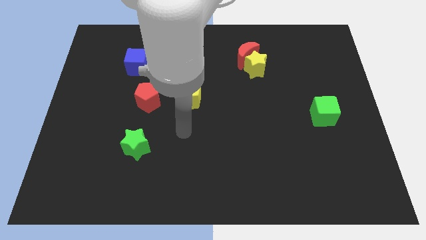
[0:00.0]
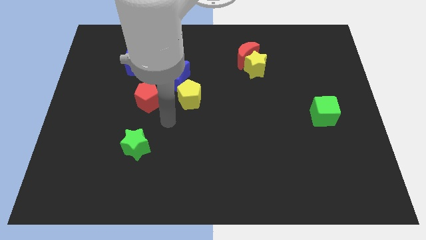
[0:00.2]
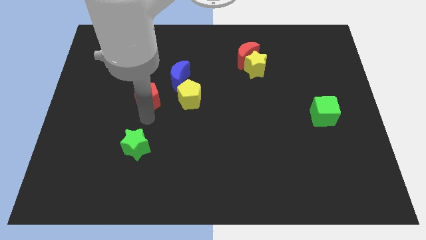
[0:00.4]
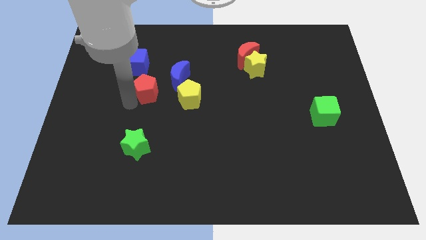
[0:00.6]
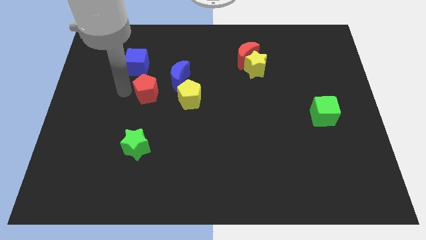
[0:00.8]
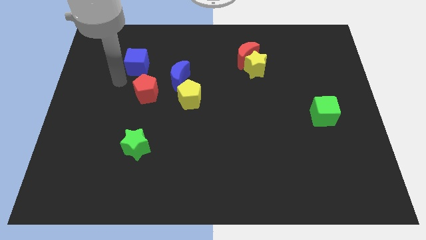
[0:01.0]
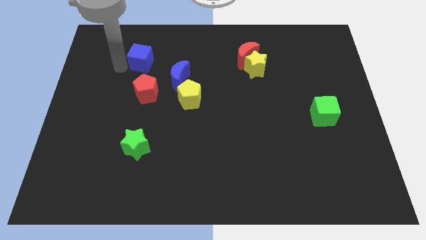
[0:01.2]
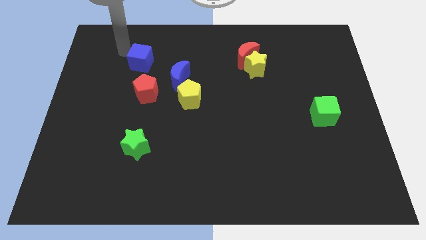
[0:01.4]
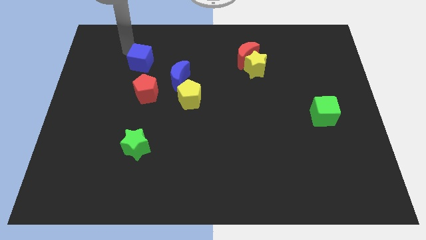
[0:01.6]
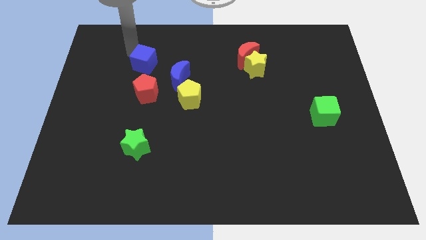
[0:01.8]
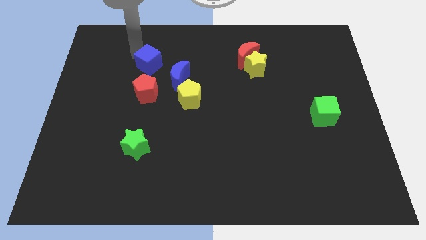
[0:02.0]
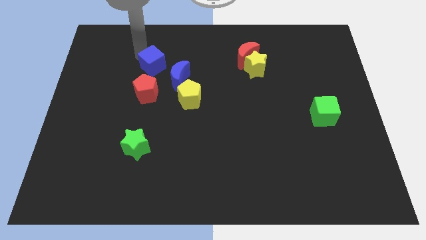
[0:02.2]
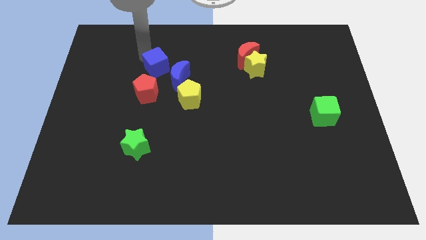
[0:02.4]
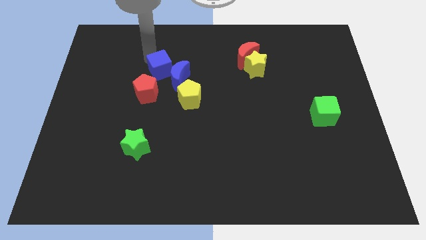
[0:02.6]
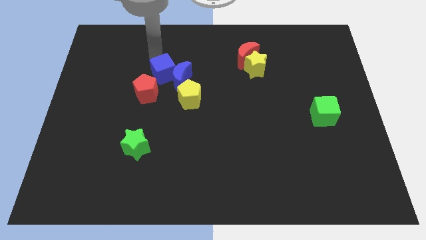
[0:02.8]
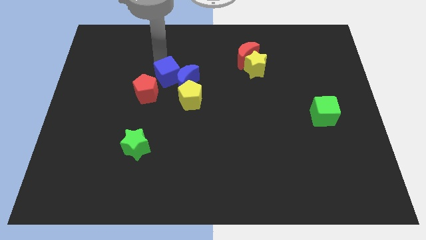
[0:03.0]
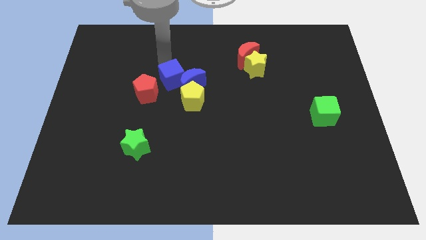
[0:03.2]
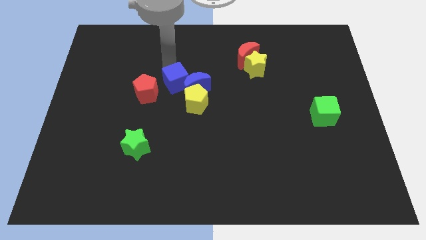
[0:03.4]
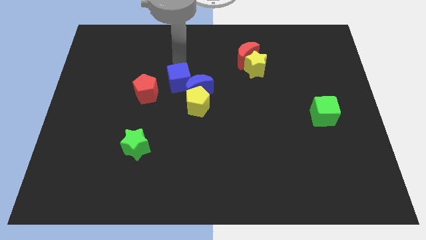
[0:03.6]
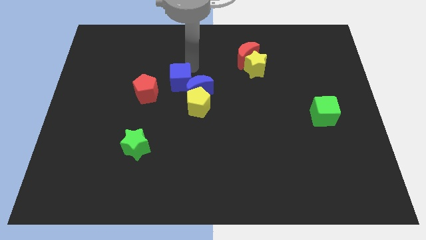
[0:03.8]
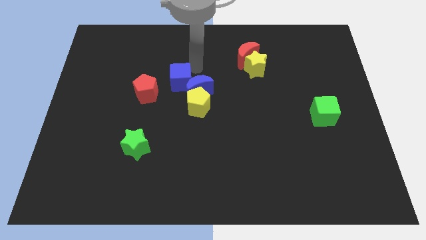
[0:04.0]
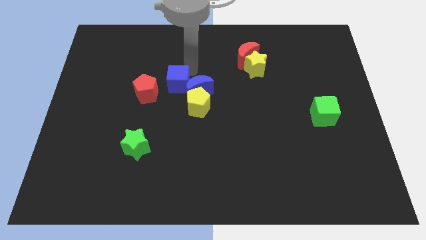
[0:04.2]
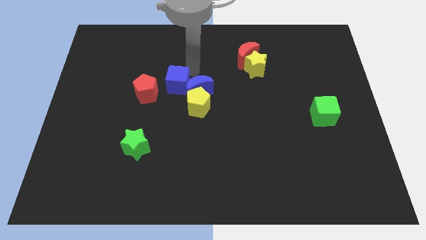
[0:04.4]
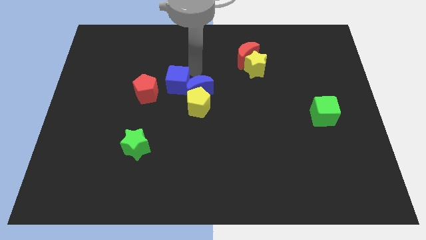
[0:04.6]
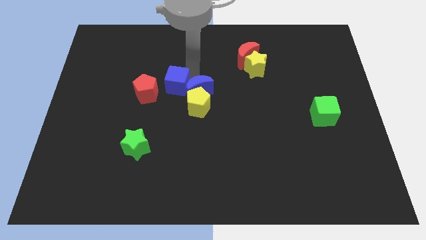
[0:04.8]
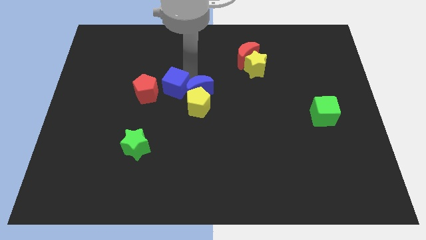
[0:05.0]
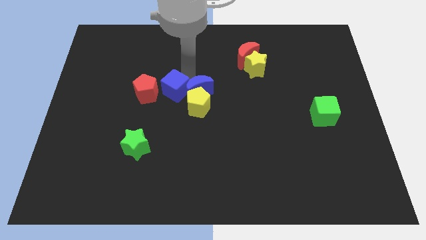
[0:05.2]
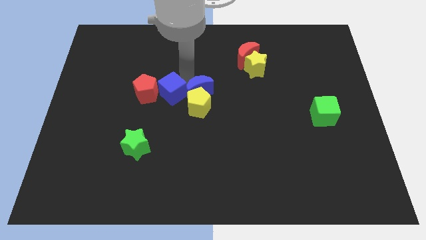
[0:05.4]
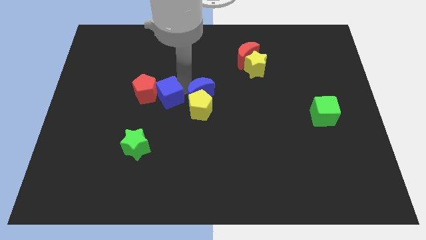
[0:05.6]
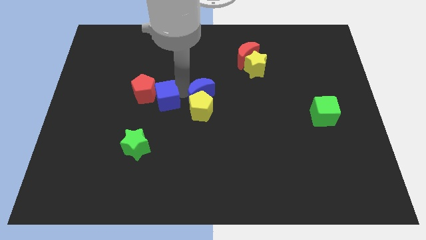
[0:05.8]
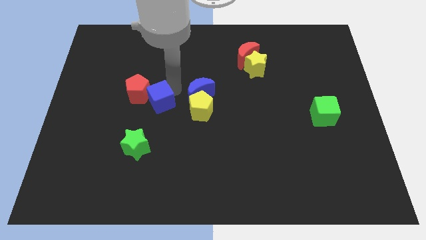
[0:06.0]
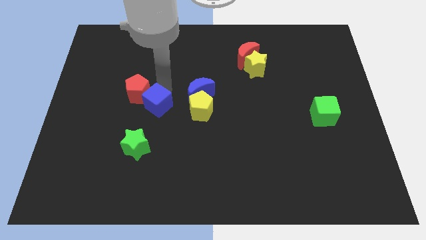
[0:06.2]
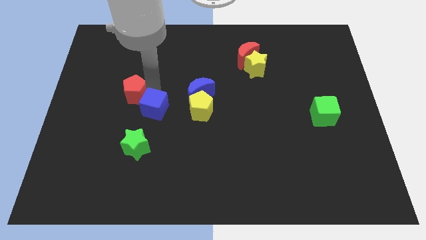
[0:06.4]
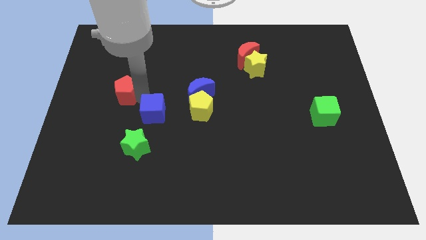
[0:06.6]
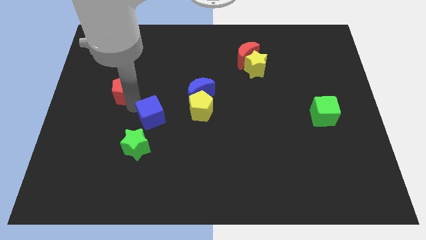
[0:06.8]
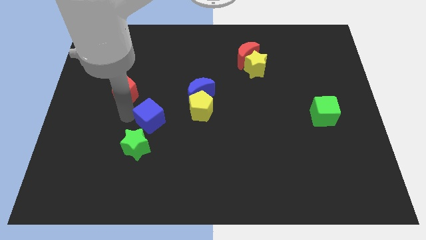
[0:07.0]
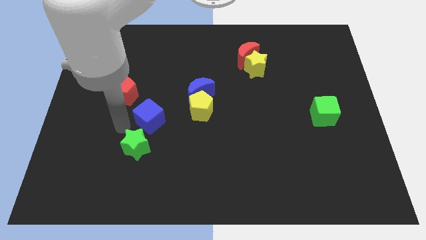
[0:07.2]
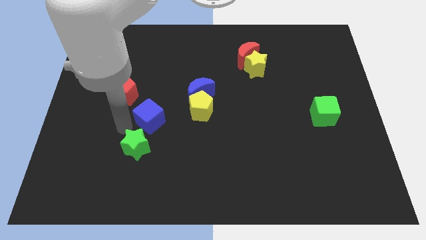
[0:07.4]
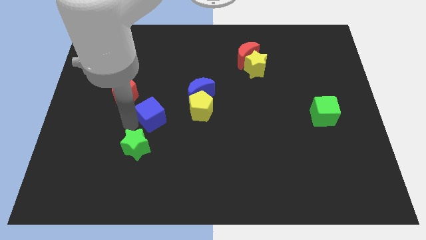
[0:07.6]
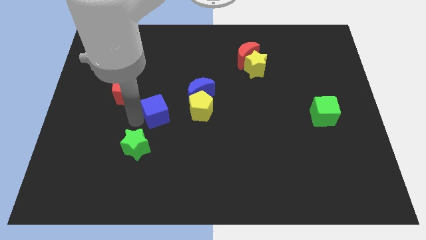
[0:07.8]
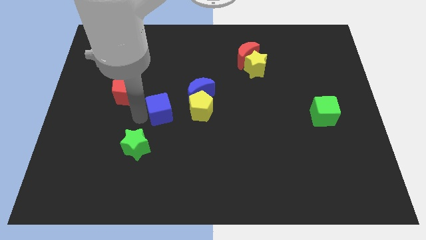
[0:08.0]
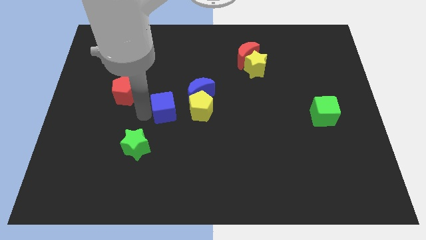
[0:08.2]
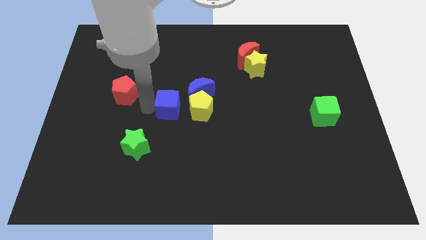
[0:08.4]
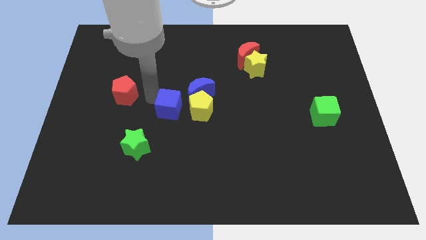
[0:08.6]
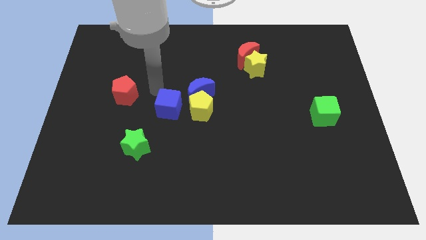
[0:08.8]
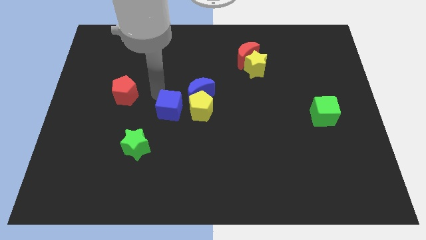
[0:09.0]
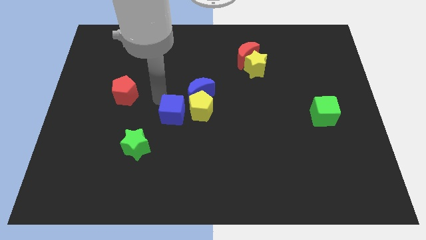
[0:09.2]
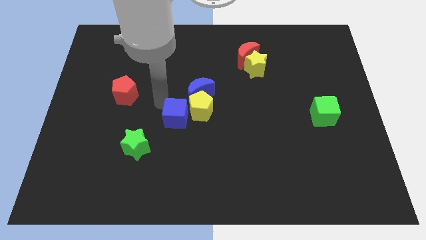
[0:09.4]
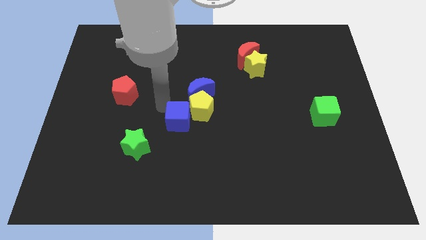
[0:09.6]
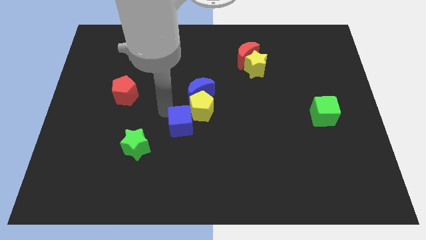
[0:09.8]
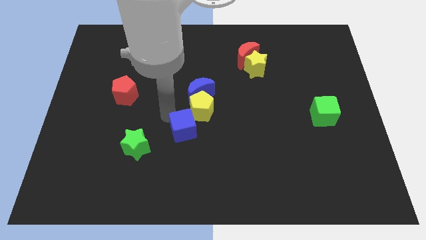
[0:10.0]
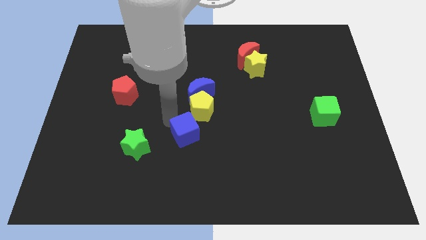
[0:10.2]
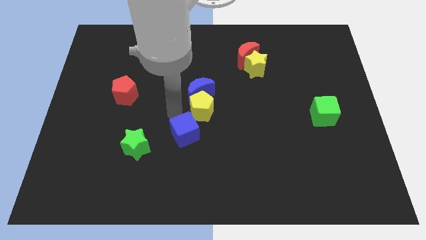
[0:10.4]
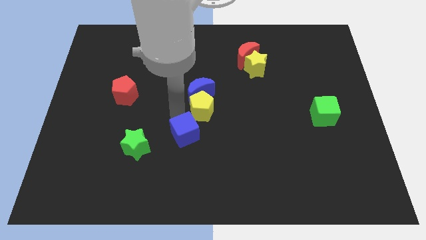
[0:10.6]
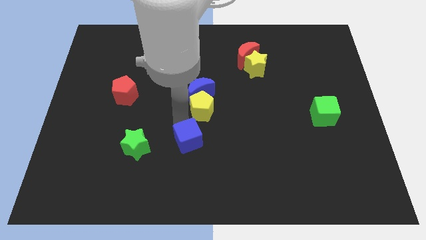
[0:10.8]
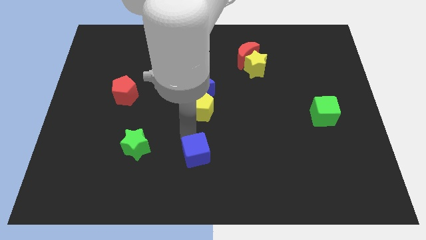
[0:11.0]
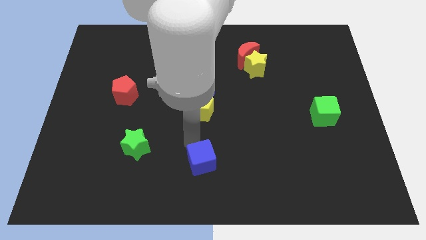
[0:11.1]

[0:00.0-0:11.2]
slide the blue cube to the bottom side

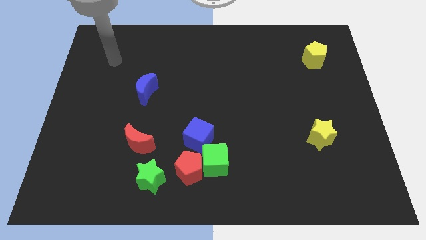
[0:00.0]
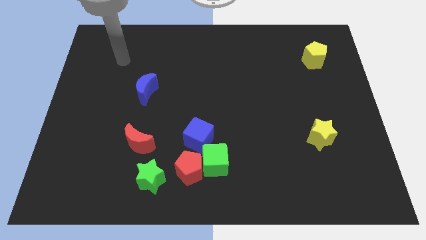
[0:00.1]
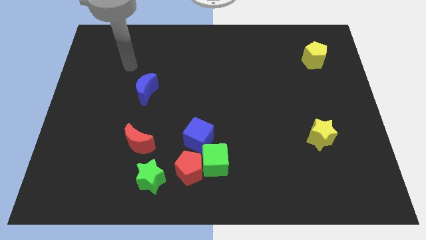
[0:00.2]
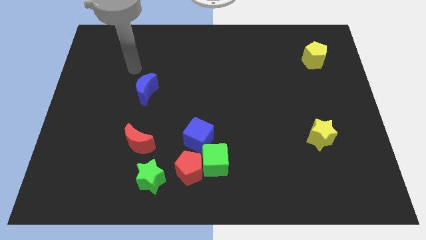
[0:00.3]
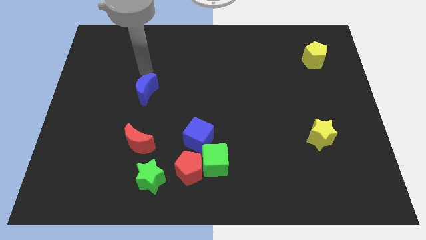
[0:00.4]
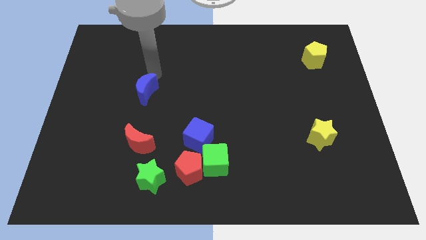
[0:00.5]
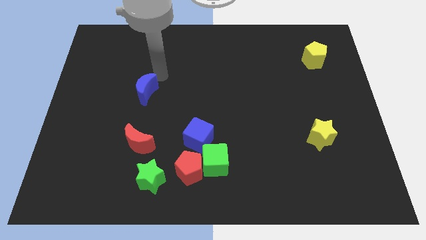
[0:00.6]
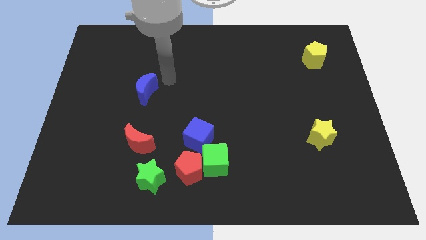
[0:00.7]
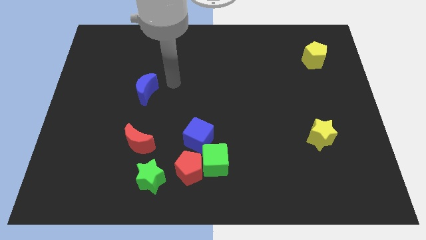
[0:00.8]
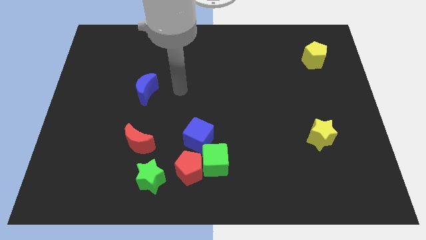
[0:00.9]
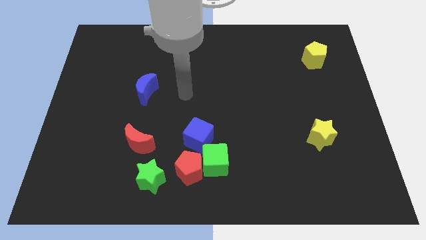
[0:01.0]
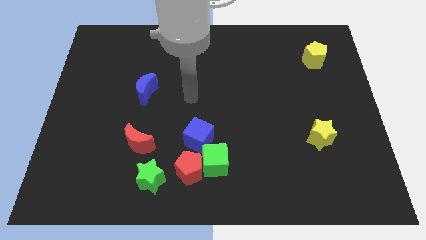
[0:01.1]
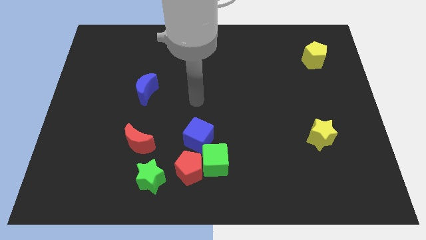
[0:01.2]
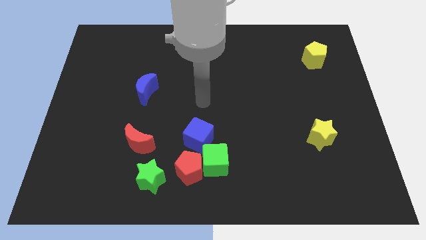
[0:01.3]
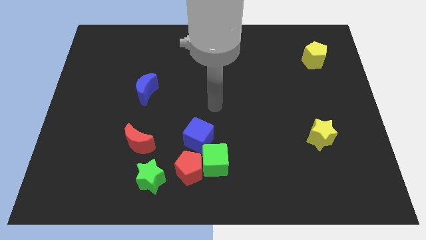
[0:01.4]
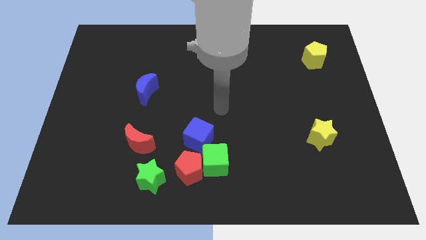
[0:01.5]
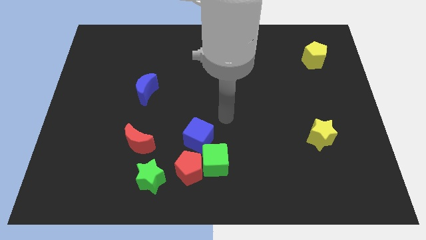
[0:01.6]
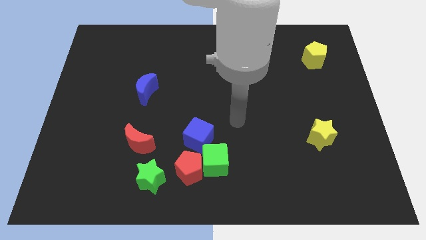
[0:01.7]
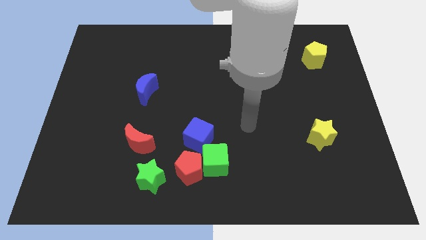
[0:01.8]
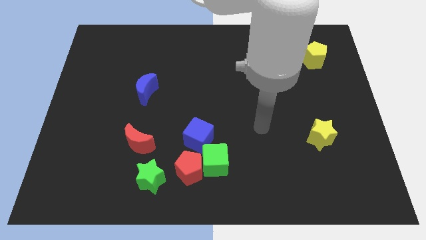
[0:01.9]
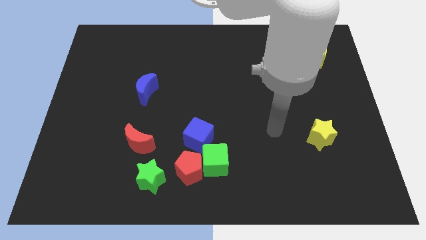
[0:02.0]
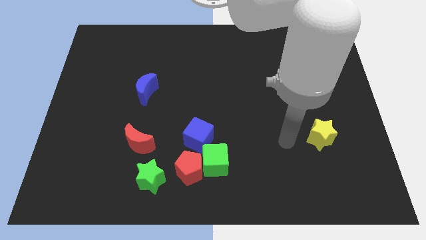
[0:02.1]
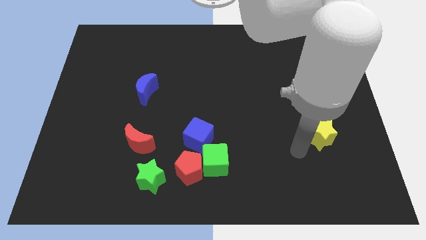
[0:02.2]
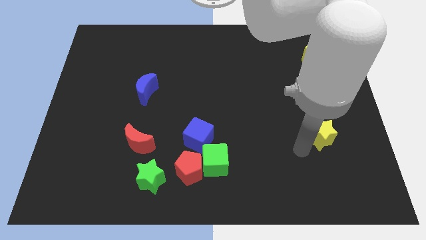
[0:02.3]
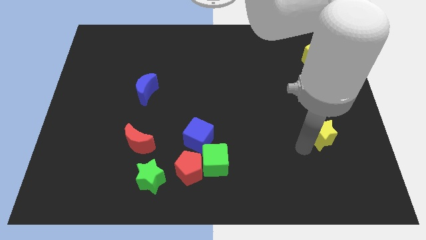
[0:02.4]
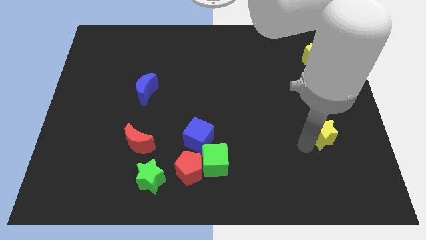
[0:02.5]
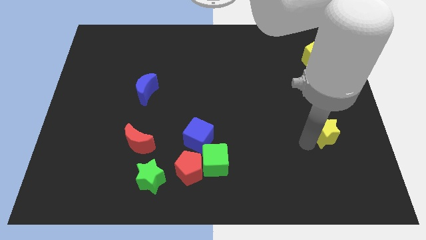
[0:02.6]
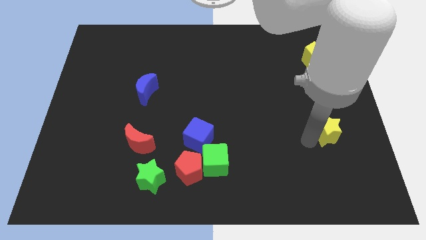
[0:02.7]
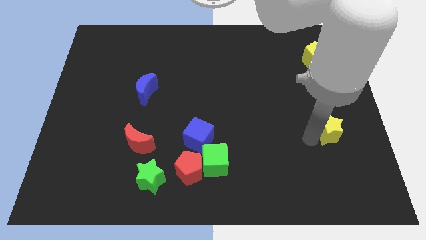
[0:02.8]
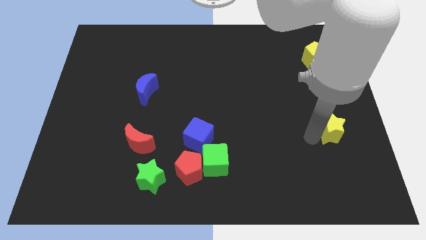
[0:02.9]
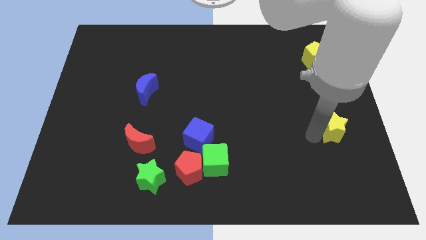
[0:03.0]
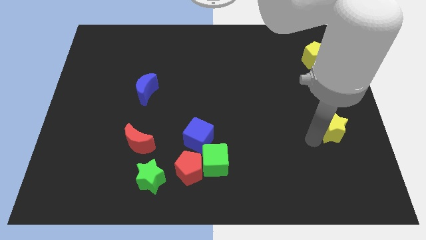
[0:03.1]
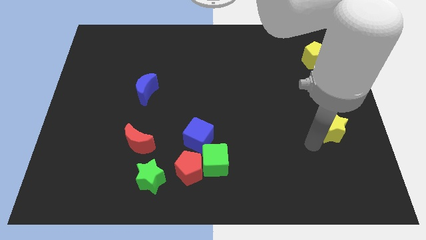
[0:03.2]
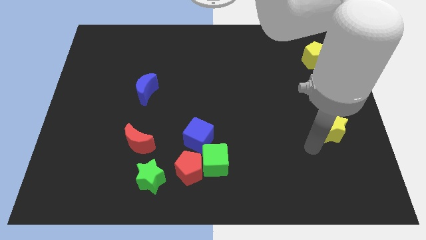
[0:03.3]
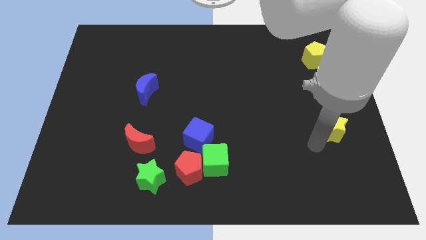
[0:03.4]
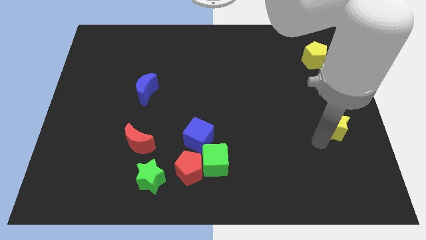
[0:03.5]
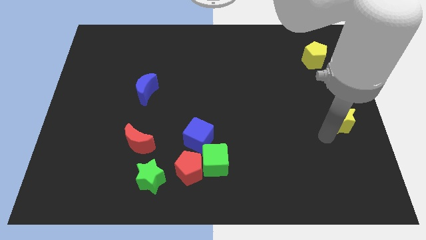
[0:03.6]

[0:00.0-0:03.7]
slide the yellow star to the center right
